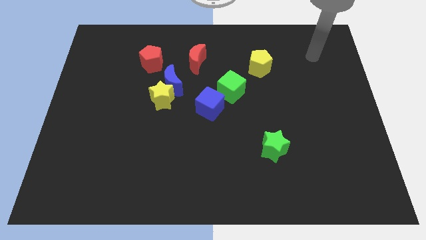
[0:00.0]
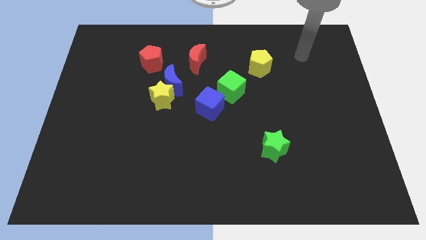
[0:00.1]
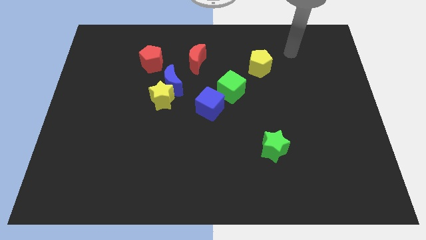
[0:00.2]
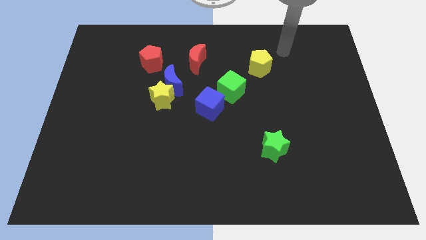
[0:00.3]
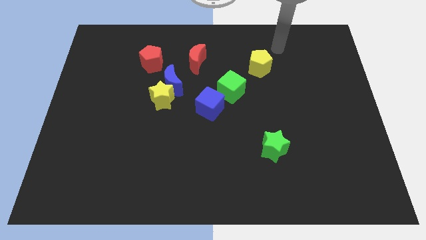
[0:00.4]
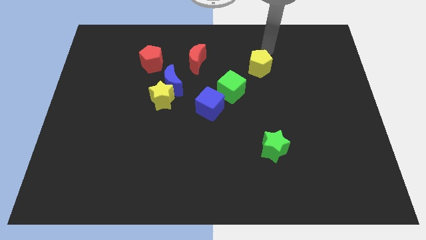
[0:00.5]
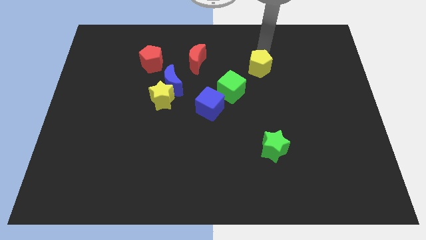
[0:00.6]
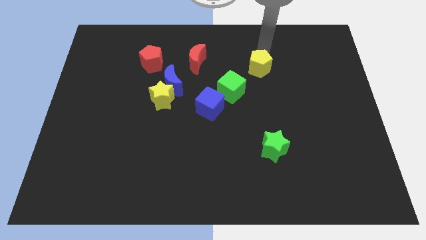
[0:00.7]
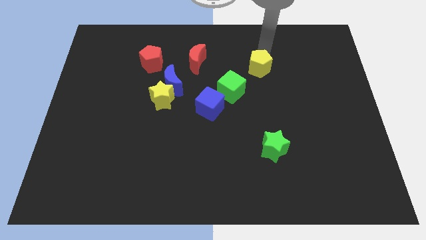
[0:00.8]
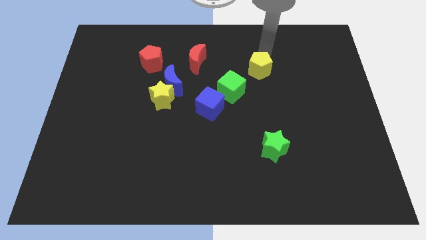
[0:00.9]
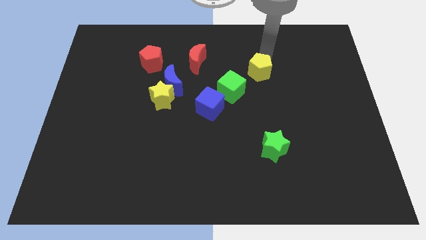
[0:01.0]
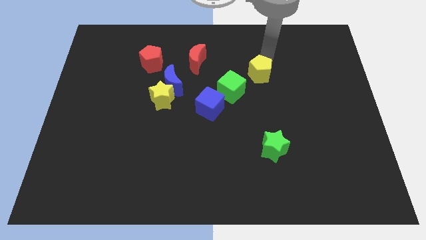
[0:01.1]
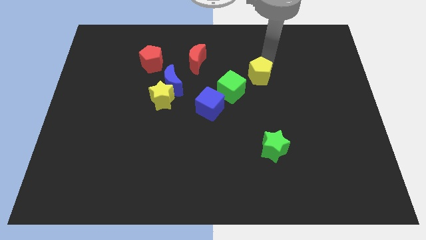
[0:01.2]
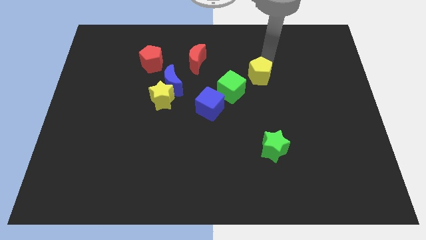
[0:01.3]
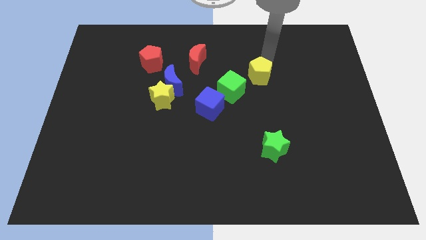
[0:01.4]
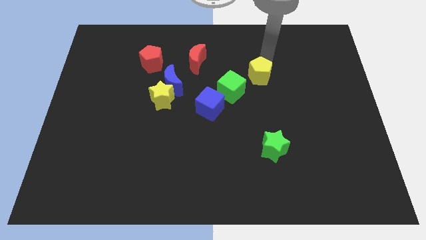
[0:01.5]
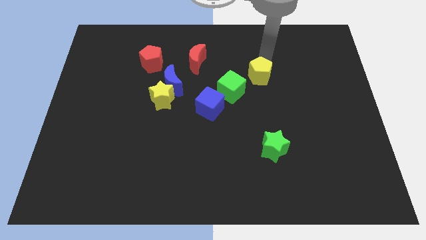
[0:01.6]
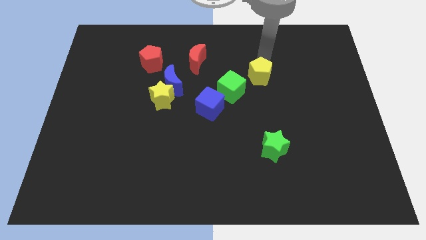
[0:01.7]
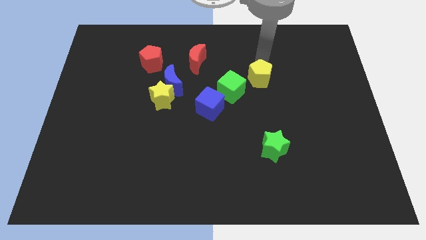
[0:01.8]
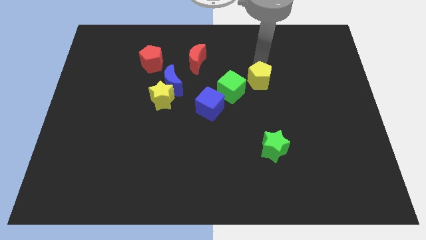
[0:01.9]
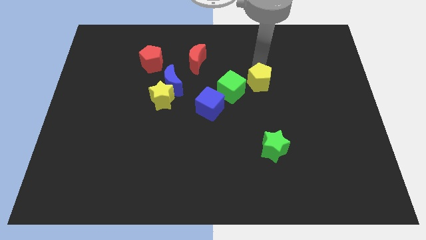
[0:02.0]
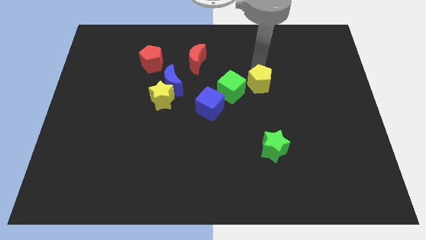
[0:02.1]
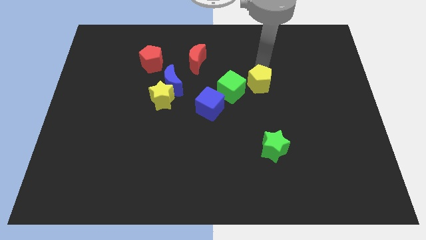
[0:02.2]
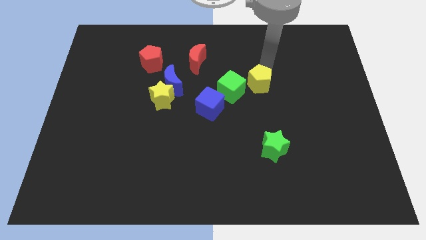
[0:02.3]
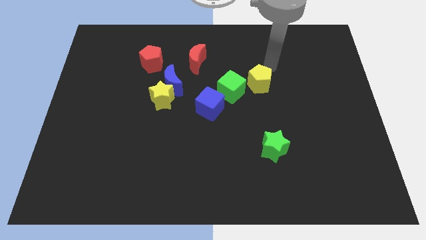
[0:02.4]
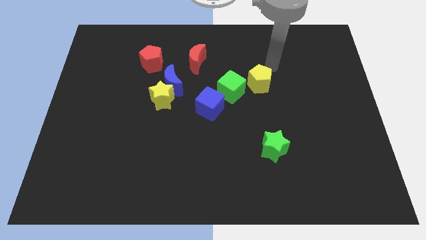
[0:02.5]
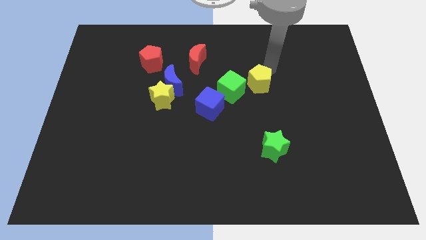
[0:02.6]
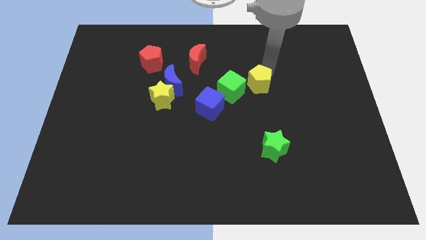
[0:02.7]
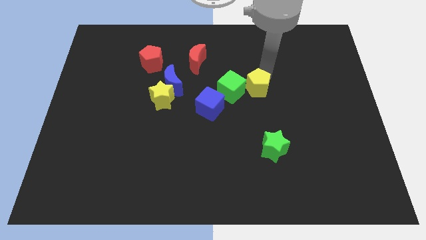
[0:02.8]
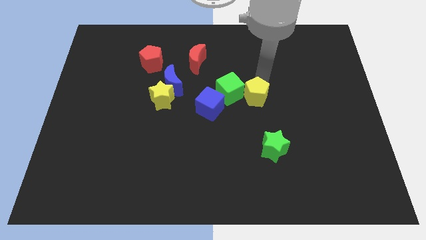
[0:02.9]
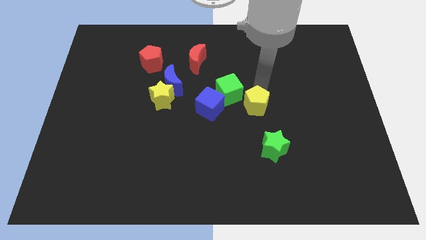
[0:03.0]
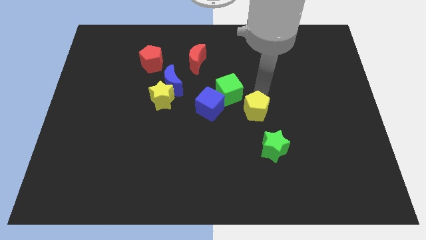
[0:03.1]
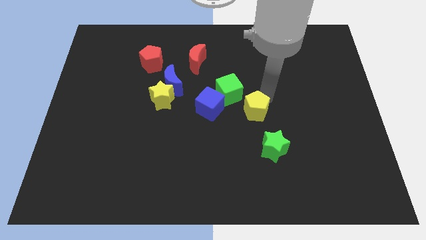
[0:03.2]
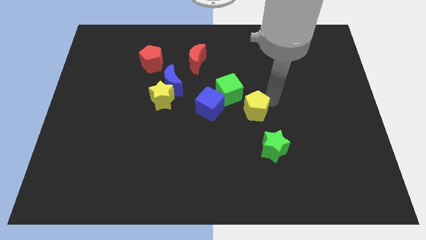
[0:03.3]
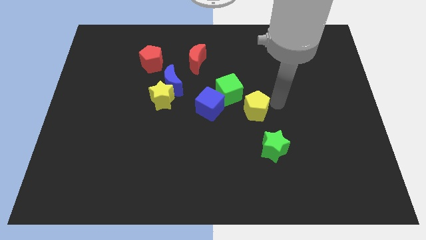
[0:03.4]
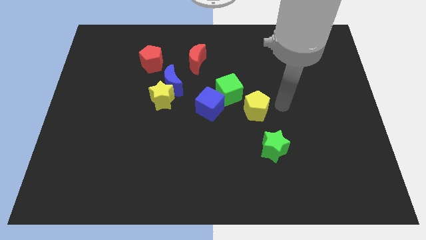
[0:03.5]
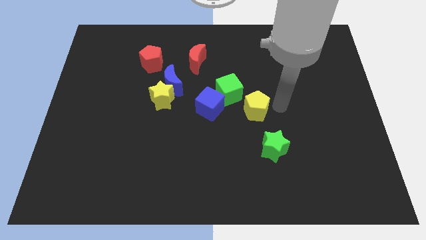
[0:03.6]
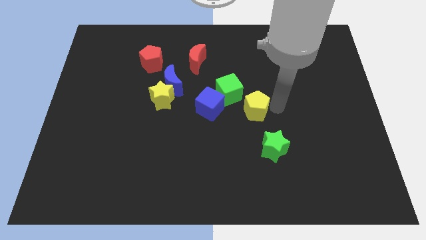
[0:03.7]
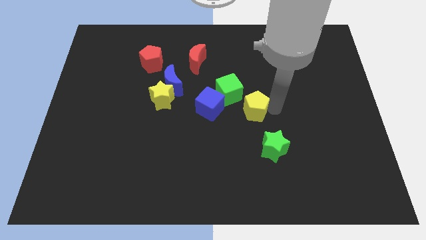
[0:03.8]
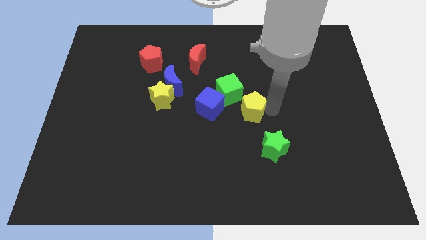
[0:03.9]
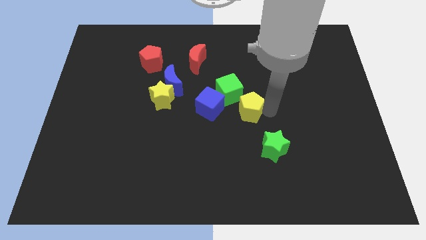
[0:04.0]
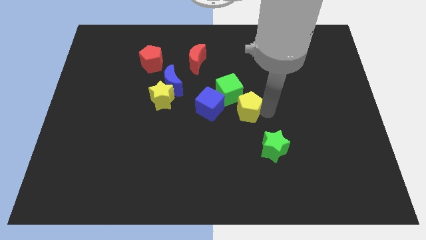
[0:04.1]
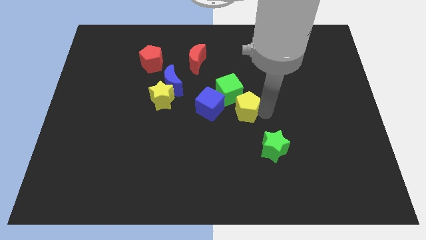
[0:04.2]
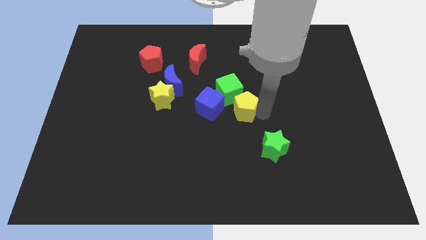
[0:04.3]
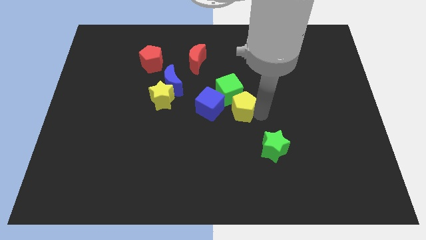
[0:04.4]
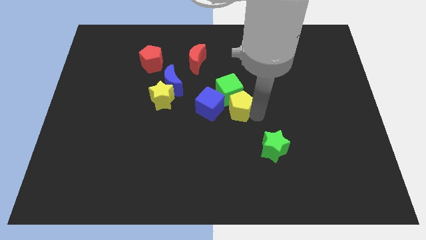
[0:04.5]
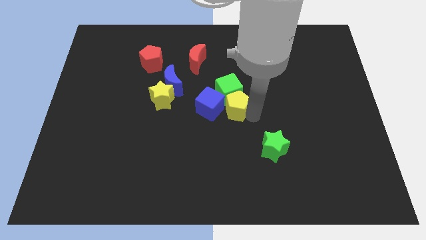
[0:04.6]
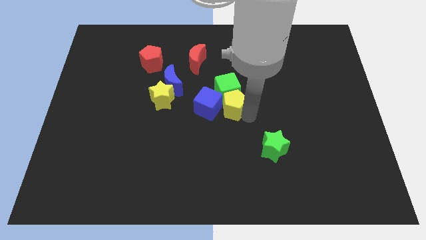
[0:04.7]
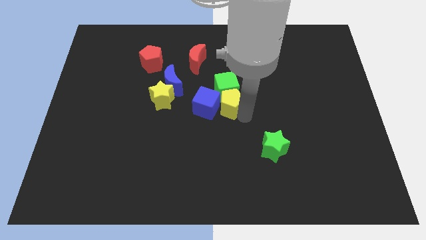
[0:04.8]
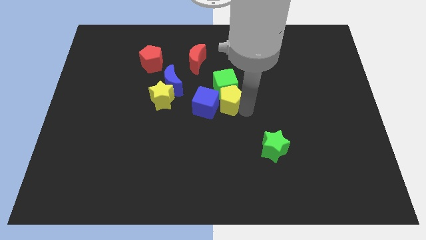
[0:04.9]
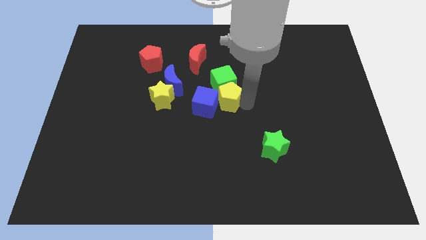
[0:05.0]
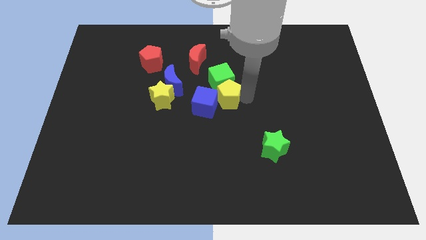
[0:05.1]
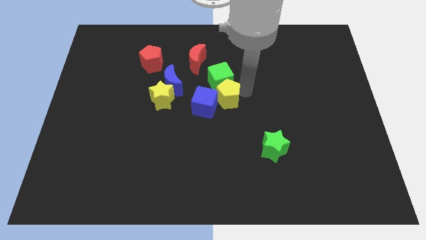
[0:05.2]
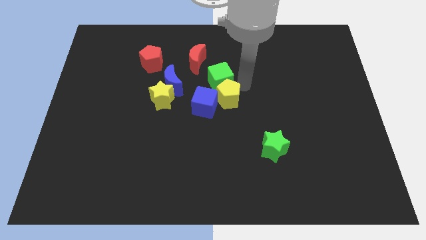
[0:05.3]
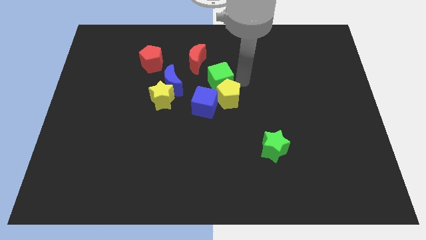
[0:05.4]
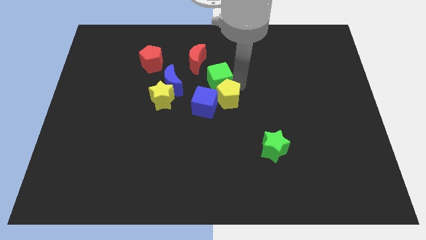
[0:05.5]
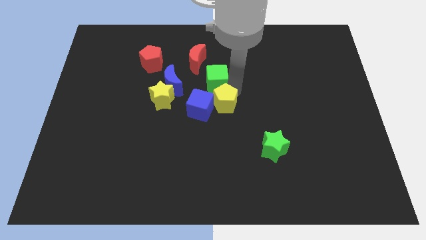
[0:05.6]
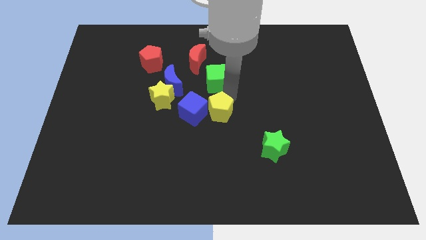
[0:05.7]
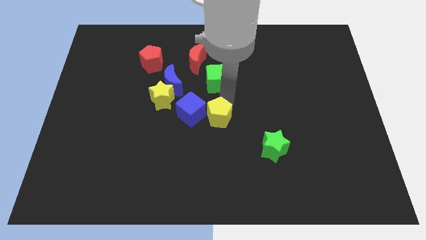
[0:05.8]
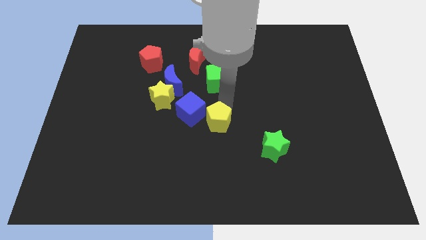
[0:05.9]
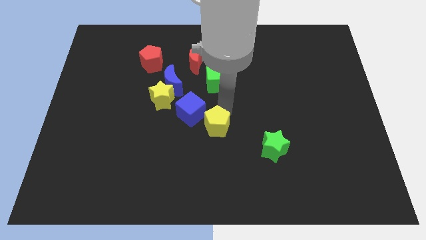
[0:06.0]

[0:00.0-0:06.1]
slide the yellow pentagon diagonally down and left

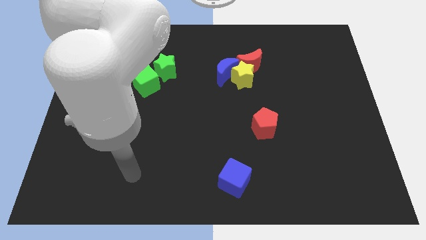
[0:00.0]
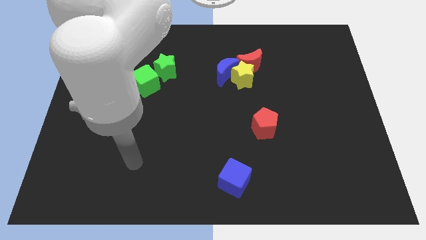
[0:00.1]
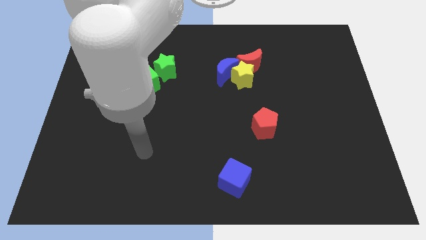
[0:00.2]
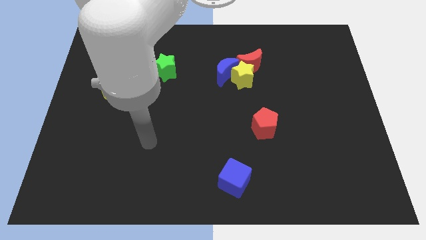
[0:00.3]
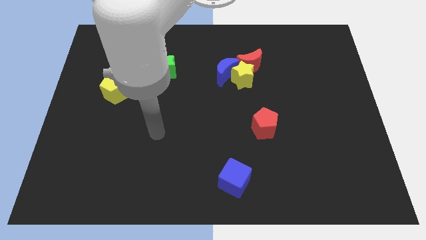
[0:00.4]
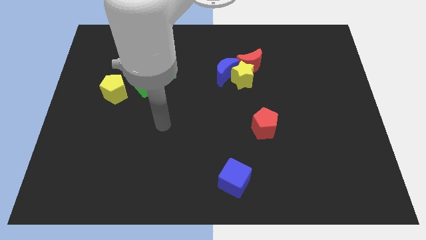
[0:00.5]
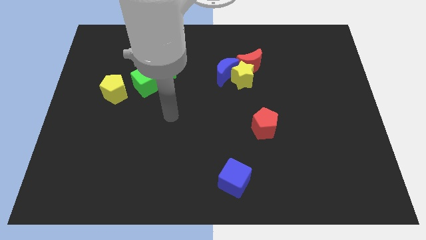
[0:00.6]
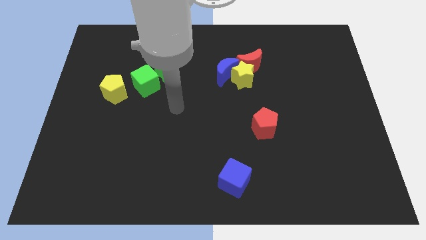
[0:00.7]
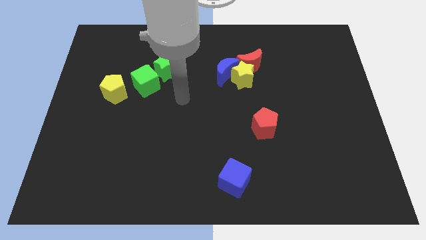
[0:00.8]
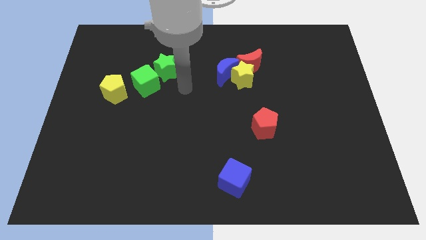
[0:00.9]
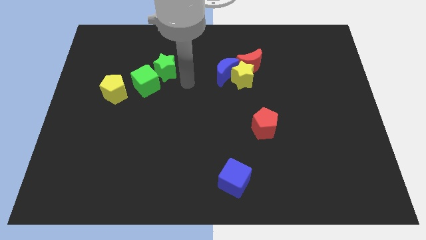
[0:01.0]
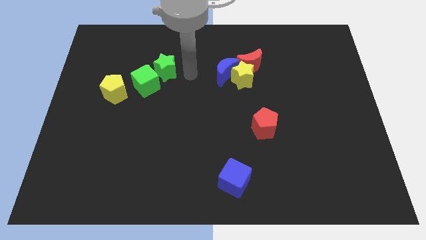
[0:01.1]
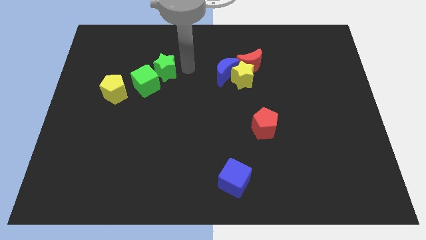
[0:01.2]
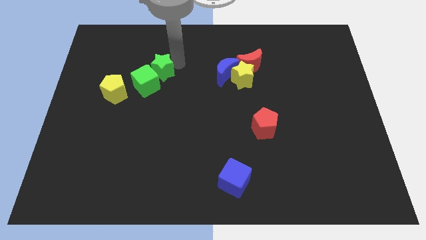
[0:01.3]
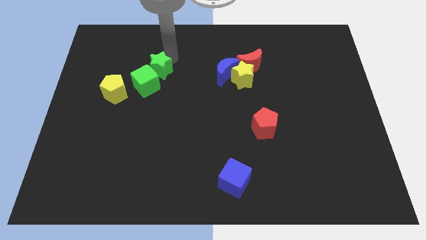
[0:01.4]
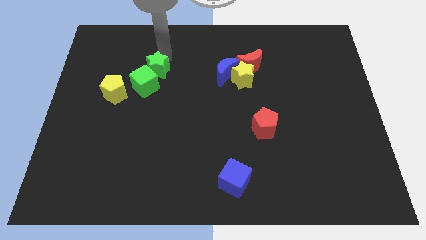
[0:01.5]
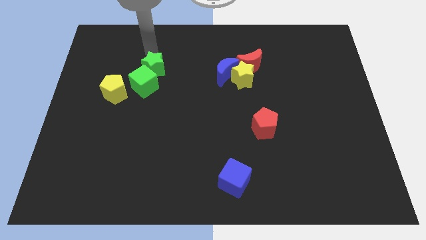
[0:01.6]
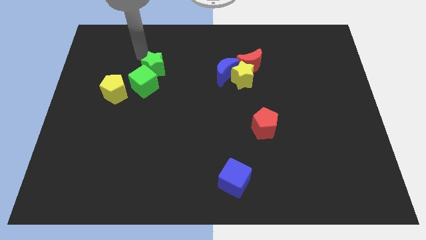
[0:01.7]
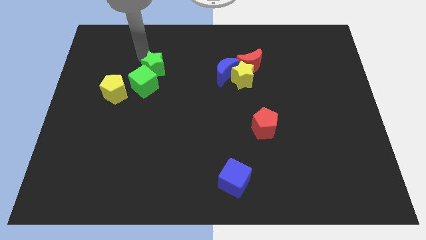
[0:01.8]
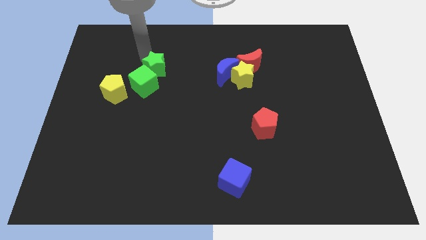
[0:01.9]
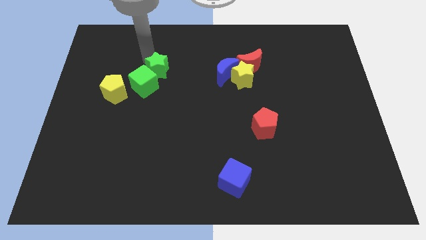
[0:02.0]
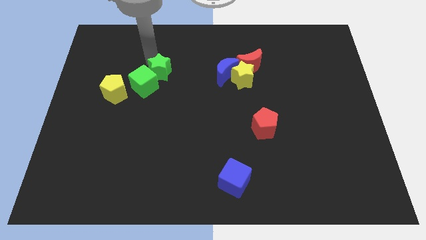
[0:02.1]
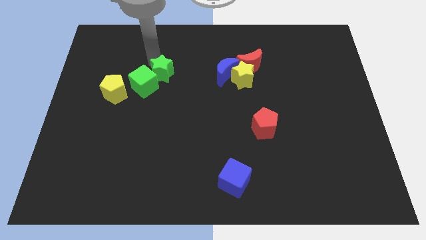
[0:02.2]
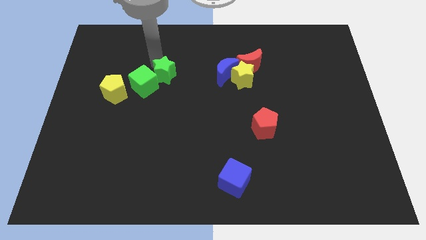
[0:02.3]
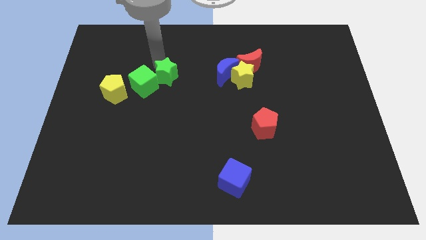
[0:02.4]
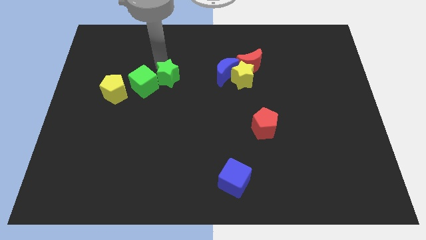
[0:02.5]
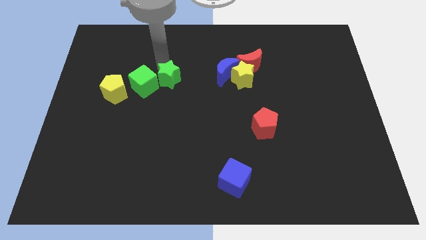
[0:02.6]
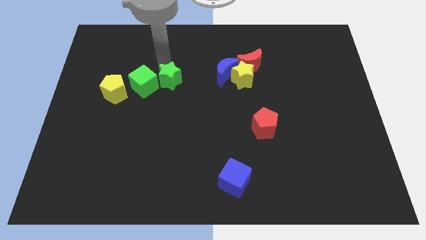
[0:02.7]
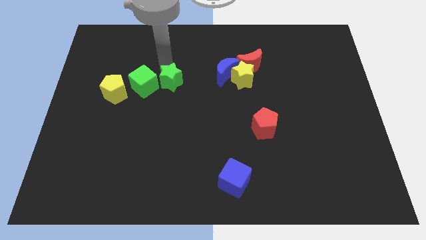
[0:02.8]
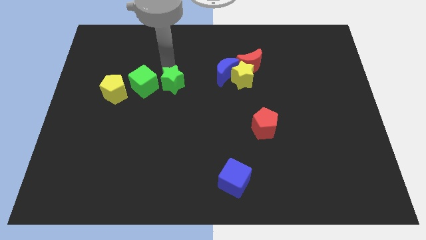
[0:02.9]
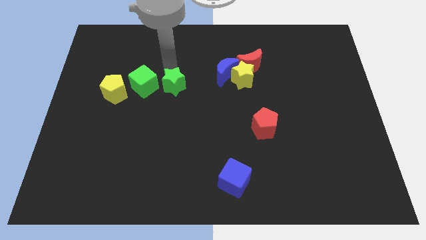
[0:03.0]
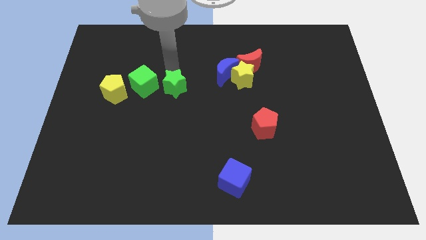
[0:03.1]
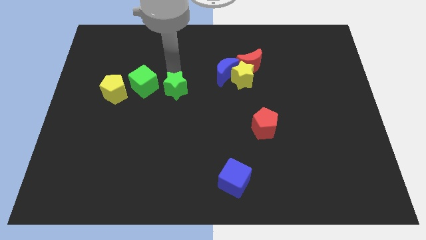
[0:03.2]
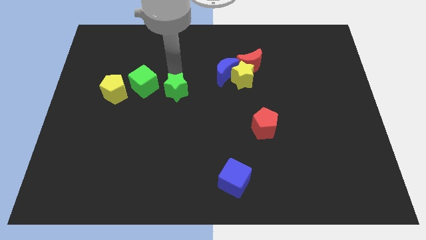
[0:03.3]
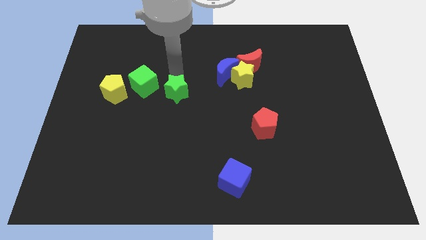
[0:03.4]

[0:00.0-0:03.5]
push the green star down a bit
